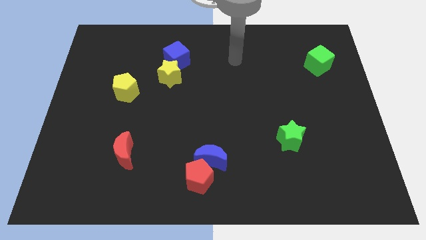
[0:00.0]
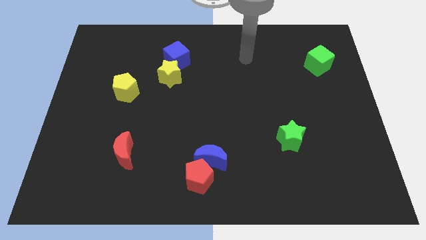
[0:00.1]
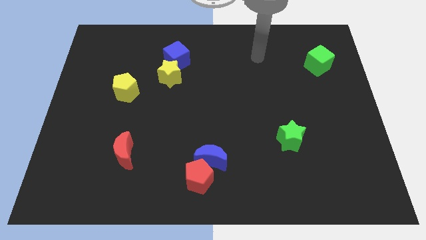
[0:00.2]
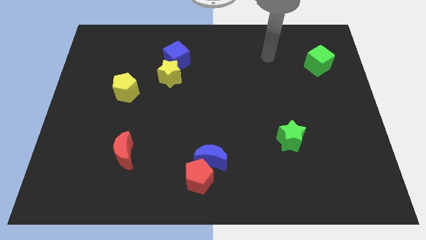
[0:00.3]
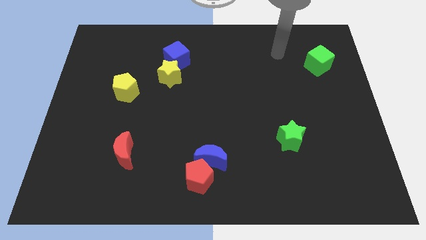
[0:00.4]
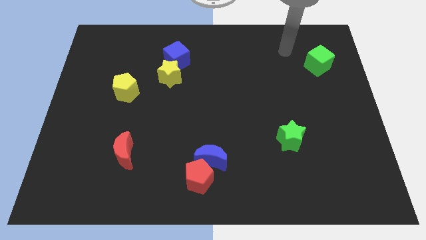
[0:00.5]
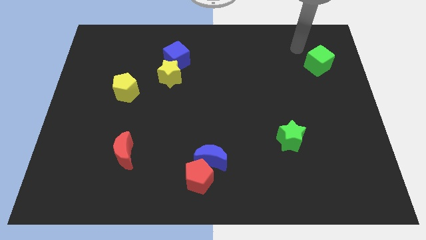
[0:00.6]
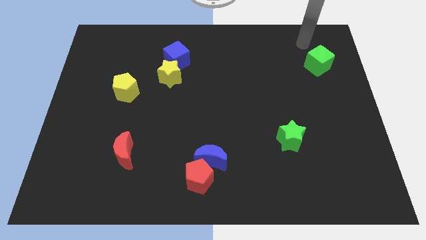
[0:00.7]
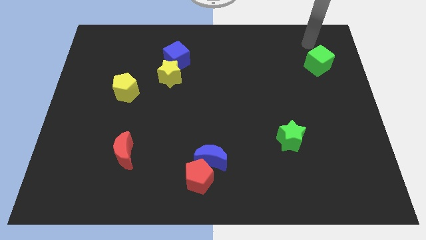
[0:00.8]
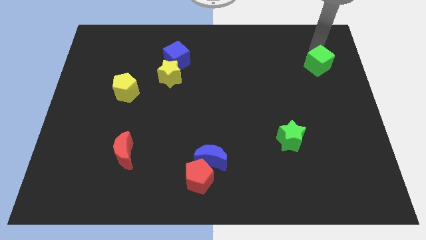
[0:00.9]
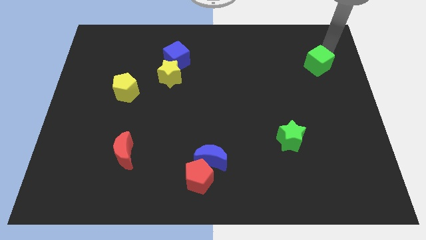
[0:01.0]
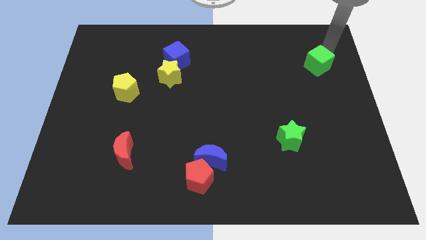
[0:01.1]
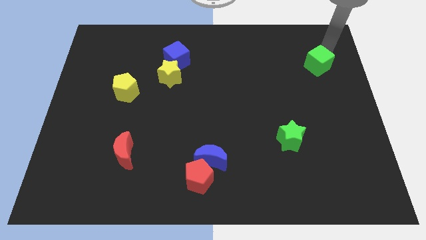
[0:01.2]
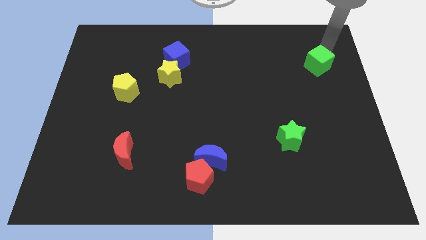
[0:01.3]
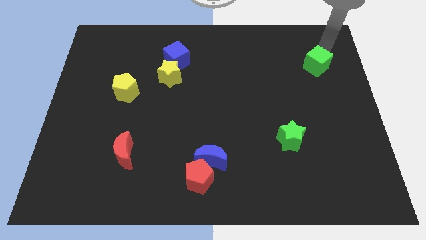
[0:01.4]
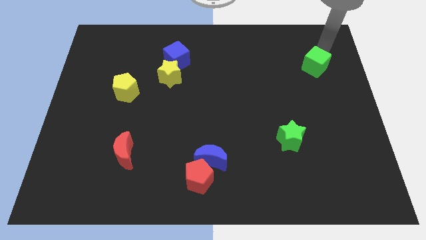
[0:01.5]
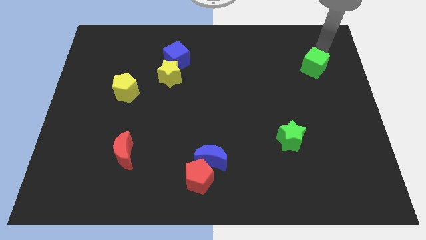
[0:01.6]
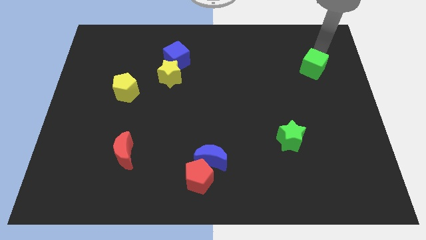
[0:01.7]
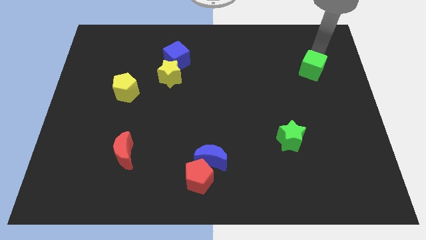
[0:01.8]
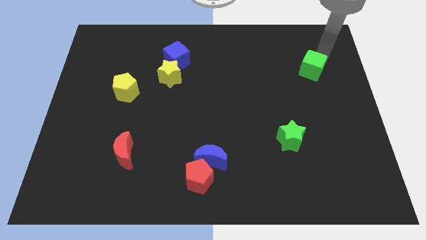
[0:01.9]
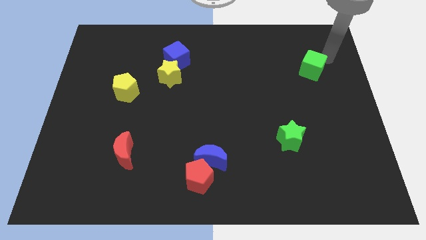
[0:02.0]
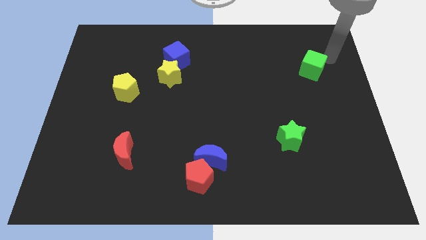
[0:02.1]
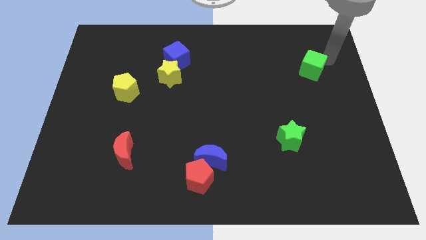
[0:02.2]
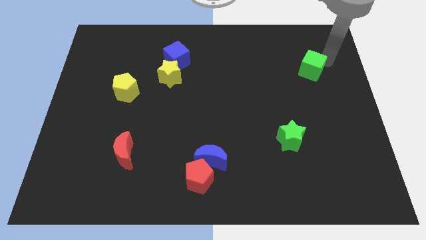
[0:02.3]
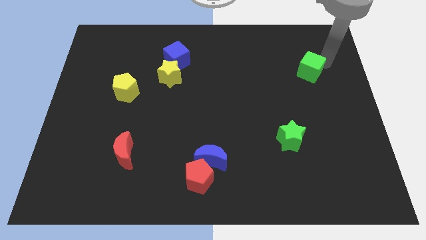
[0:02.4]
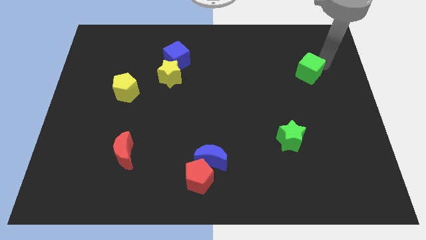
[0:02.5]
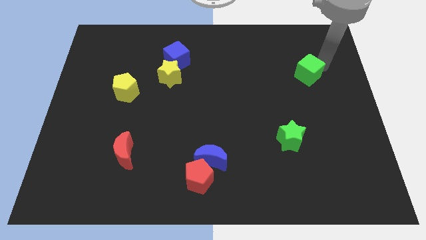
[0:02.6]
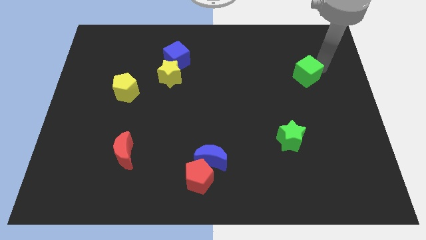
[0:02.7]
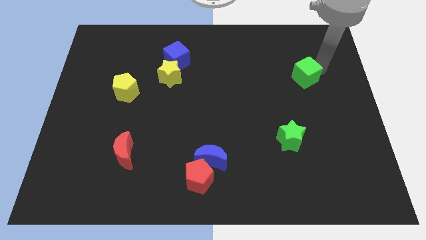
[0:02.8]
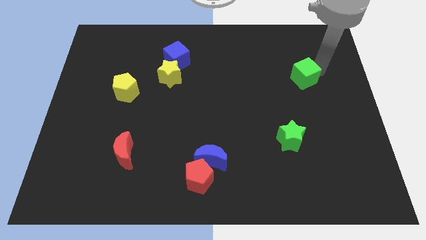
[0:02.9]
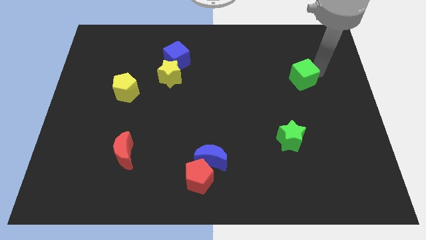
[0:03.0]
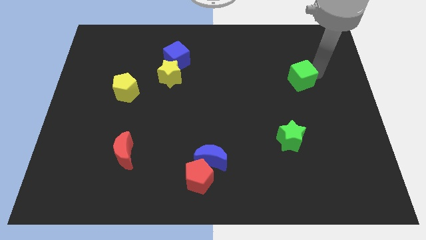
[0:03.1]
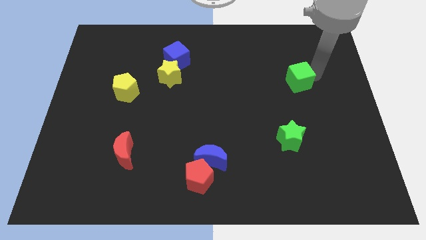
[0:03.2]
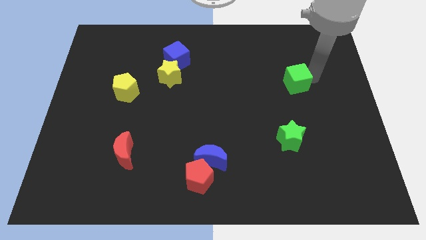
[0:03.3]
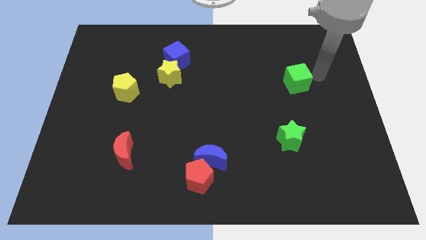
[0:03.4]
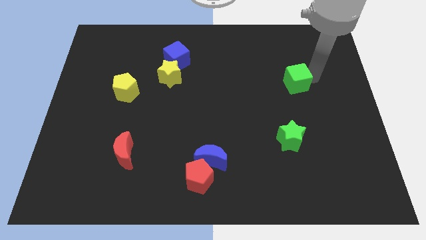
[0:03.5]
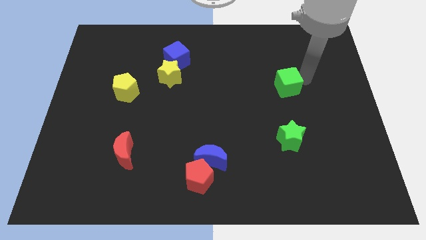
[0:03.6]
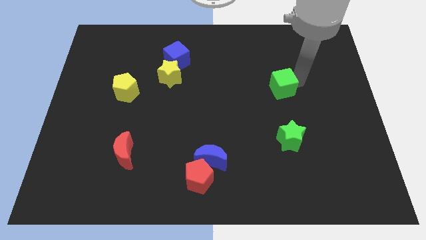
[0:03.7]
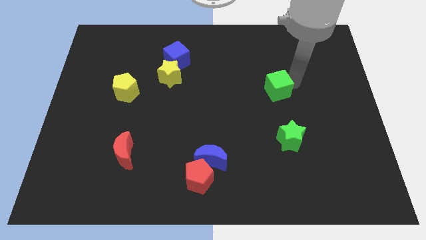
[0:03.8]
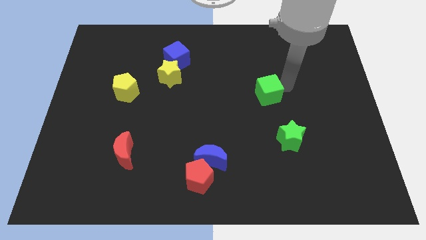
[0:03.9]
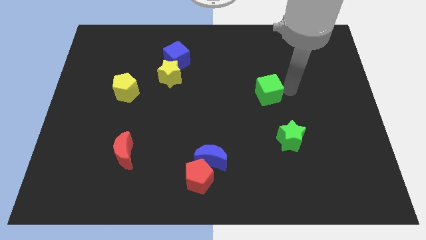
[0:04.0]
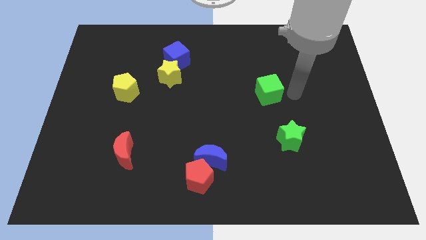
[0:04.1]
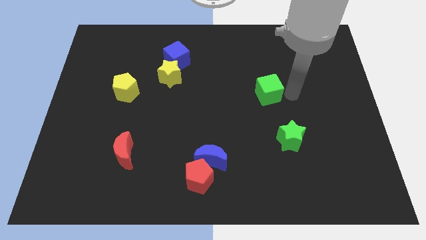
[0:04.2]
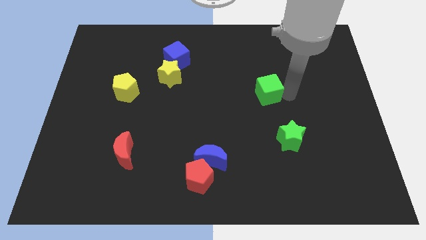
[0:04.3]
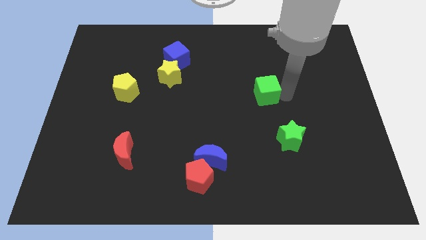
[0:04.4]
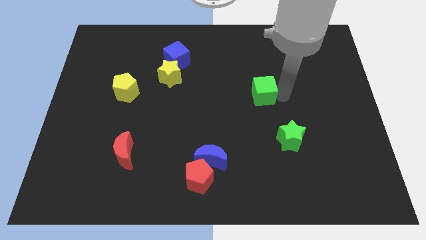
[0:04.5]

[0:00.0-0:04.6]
push the green cube to the center

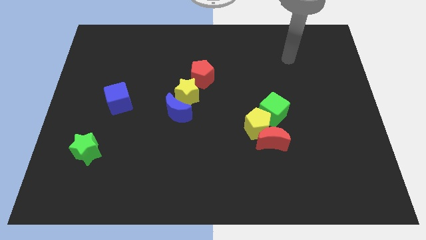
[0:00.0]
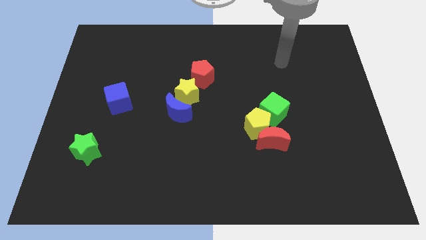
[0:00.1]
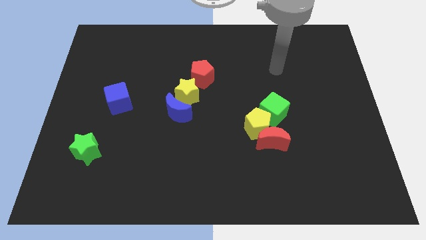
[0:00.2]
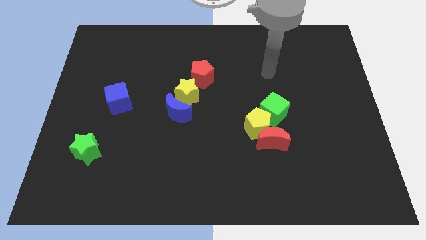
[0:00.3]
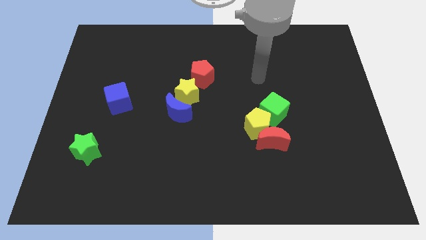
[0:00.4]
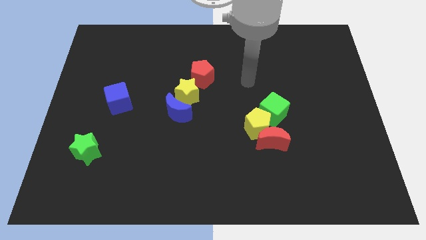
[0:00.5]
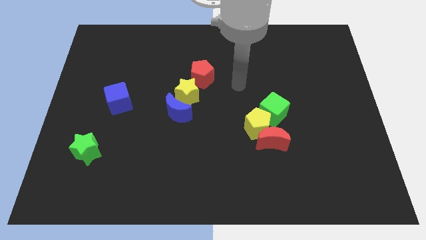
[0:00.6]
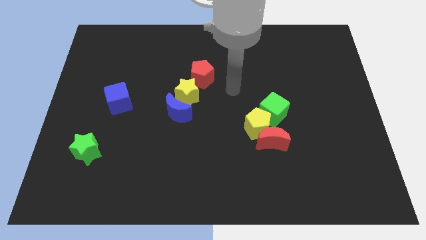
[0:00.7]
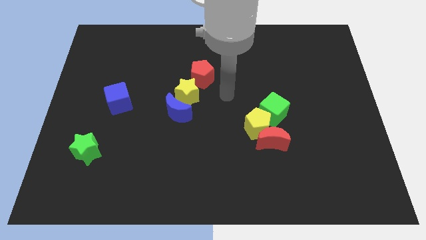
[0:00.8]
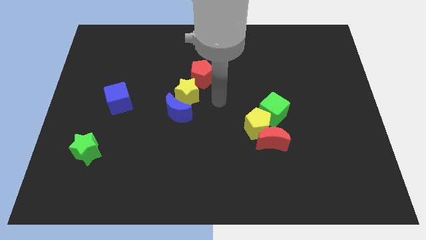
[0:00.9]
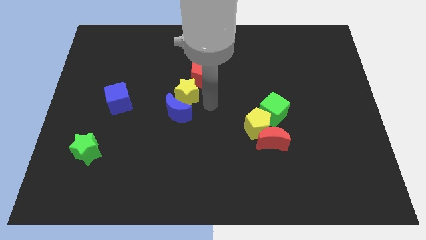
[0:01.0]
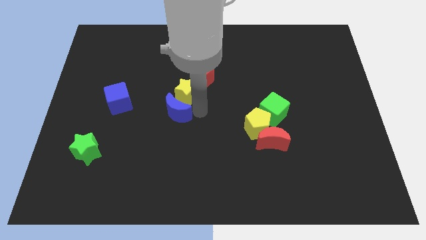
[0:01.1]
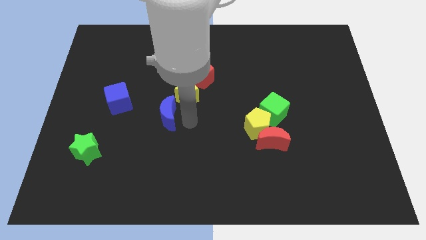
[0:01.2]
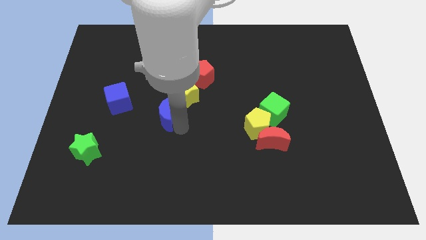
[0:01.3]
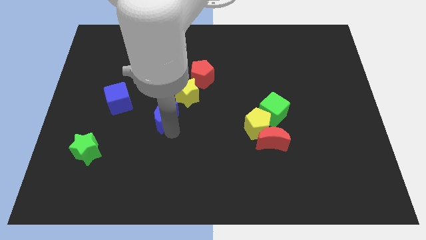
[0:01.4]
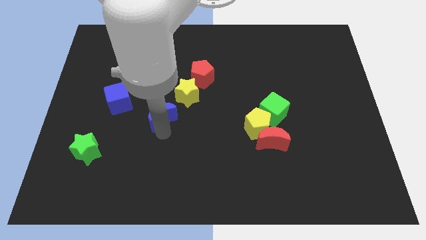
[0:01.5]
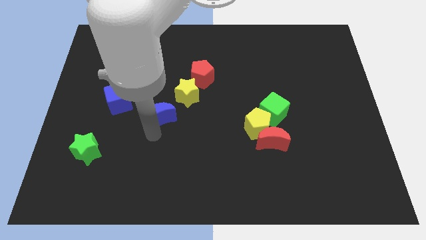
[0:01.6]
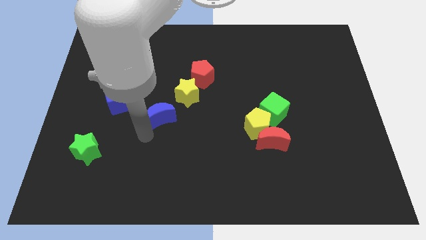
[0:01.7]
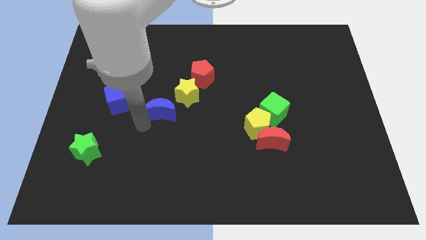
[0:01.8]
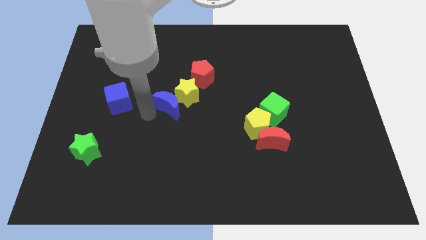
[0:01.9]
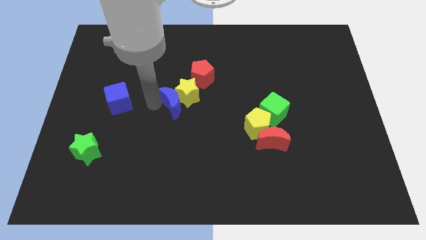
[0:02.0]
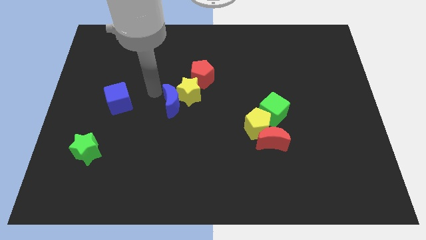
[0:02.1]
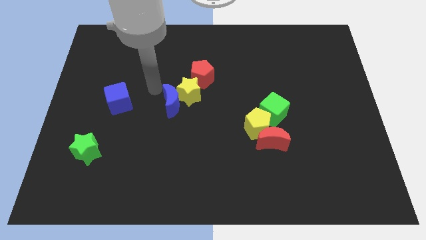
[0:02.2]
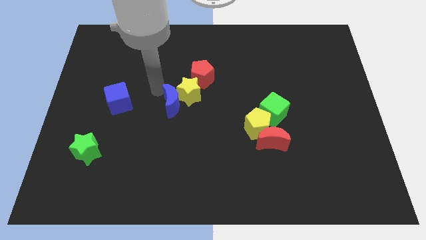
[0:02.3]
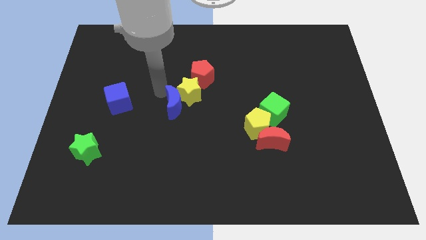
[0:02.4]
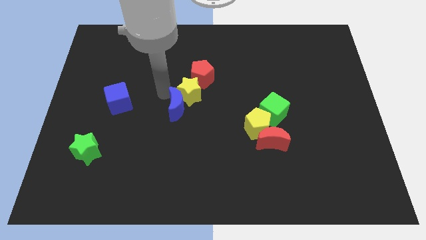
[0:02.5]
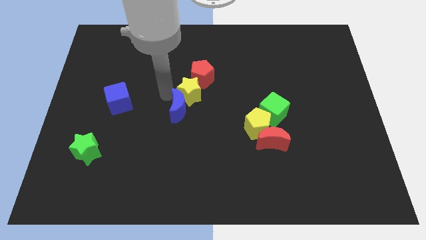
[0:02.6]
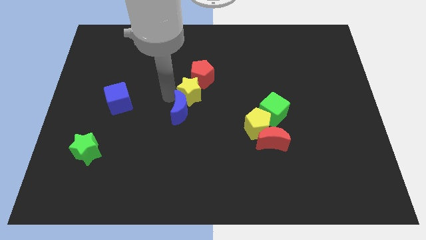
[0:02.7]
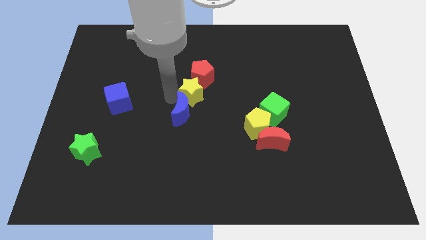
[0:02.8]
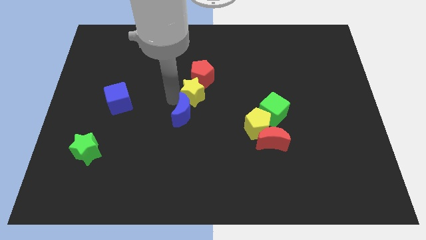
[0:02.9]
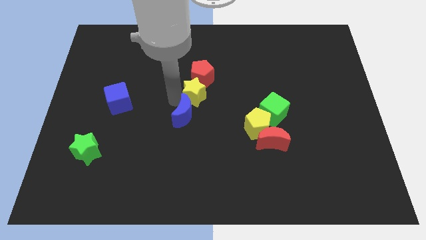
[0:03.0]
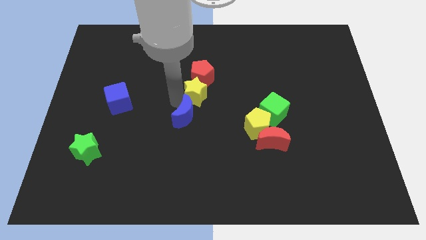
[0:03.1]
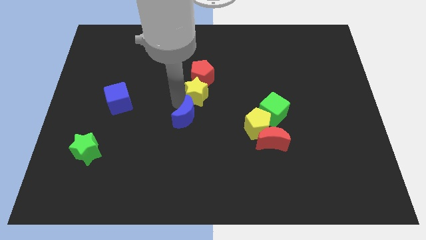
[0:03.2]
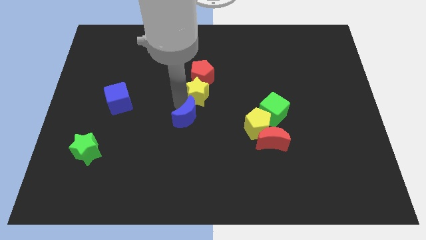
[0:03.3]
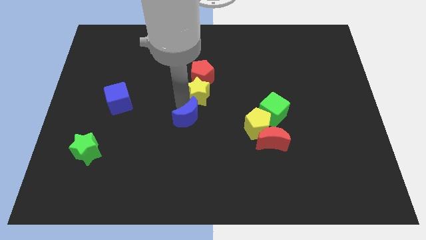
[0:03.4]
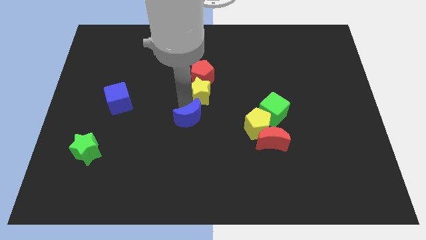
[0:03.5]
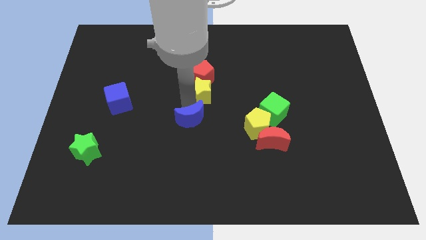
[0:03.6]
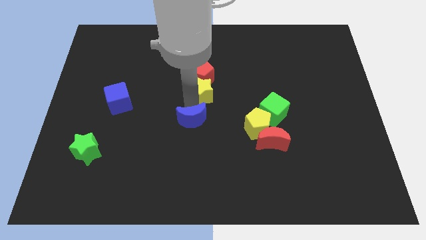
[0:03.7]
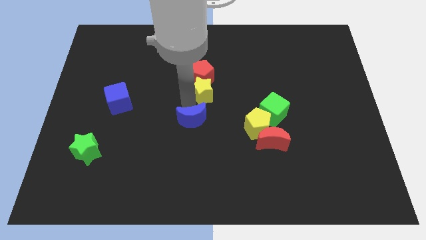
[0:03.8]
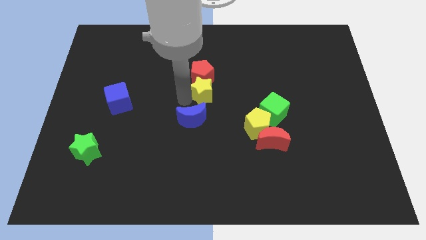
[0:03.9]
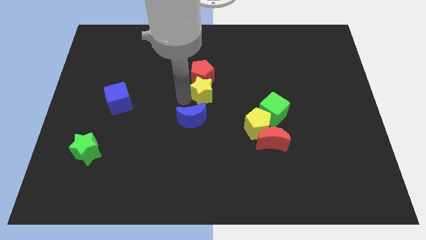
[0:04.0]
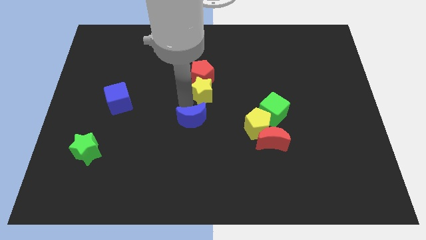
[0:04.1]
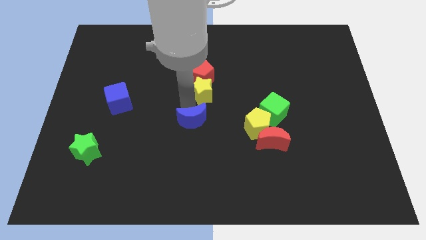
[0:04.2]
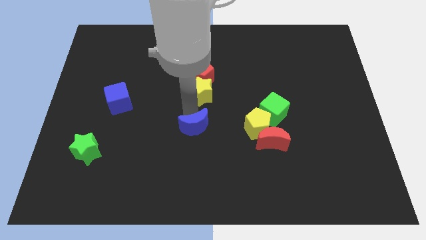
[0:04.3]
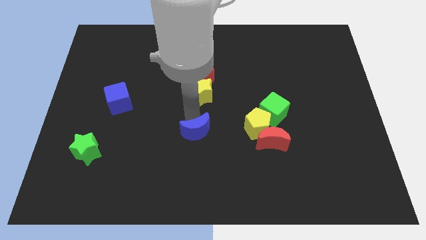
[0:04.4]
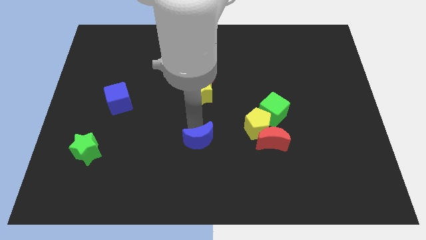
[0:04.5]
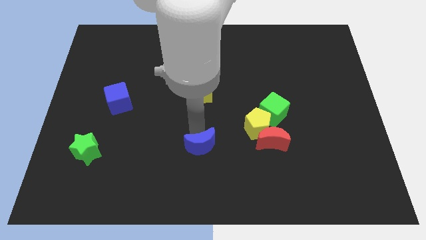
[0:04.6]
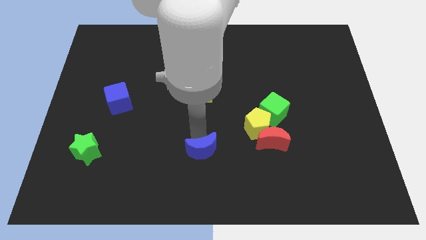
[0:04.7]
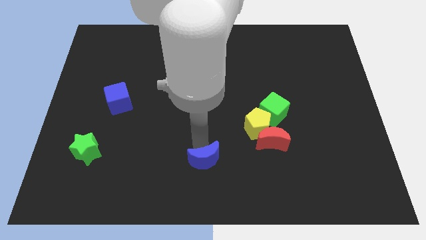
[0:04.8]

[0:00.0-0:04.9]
push the blue moon to the bottom side
